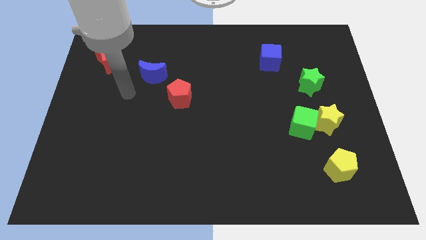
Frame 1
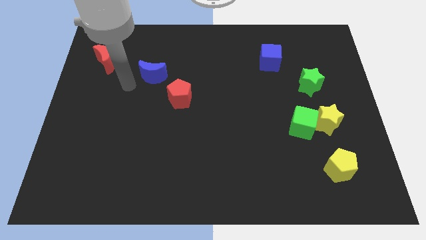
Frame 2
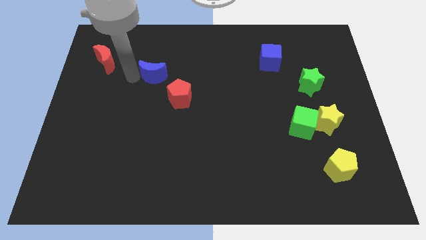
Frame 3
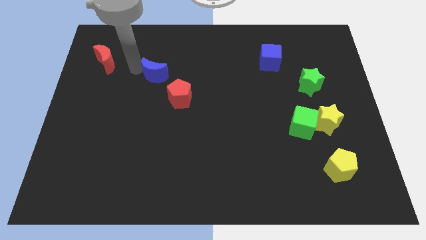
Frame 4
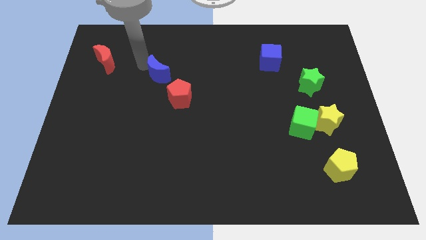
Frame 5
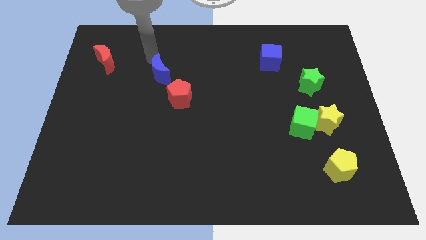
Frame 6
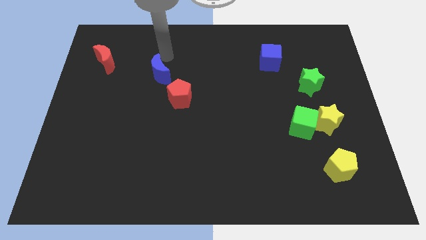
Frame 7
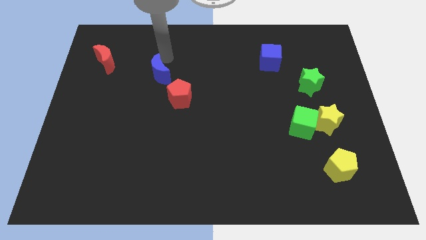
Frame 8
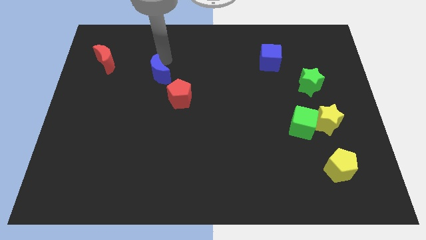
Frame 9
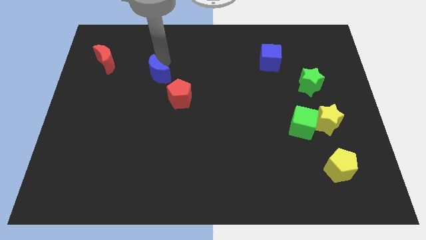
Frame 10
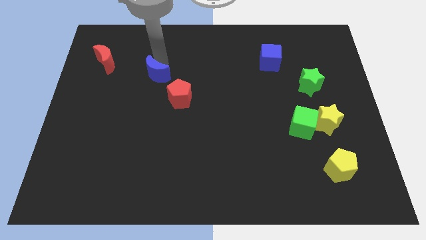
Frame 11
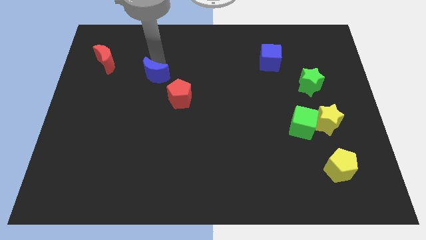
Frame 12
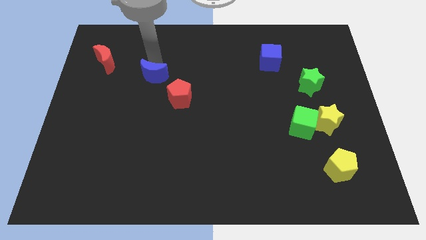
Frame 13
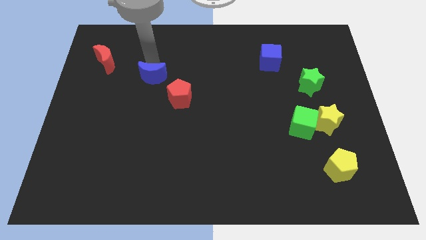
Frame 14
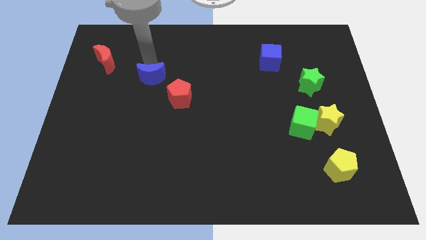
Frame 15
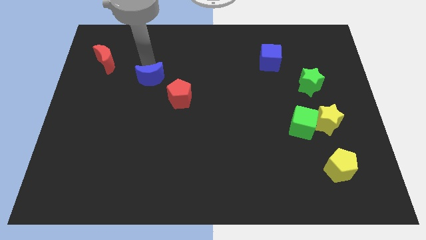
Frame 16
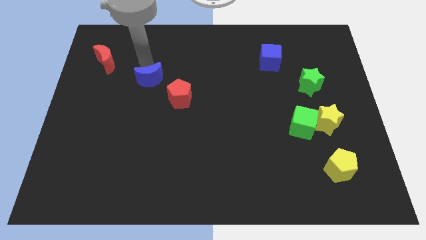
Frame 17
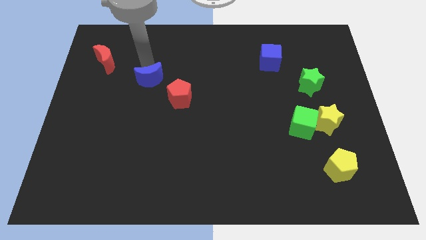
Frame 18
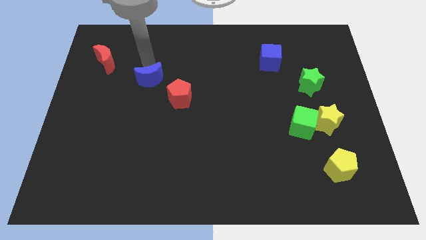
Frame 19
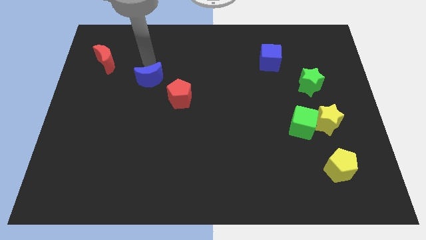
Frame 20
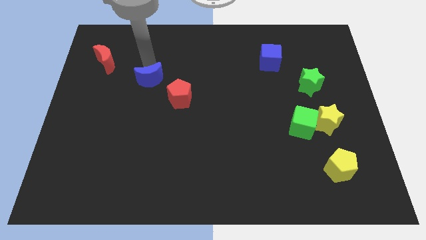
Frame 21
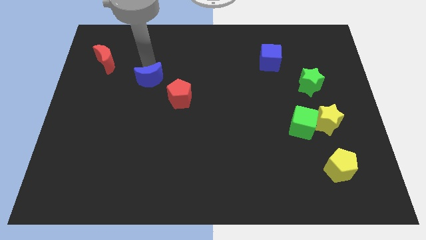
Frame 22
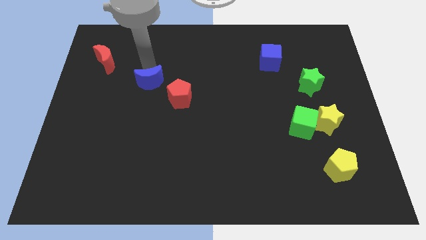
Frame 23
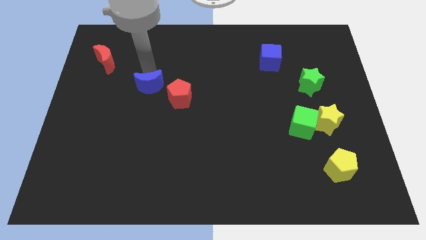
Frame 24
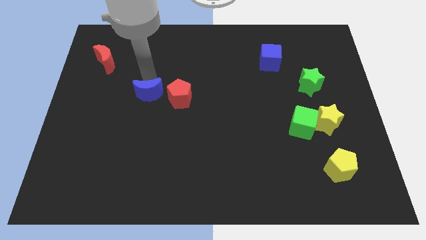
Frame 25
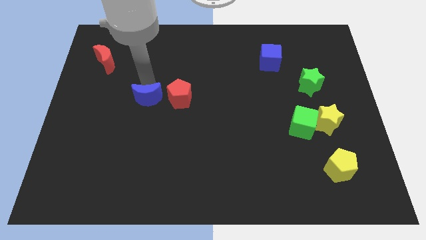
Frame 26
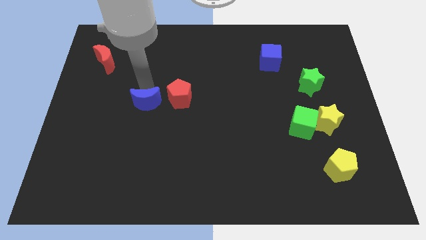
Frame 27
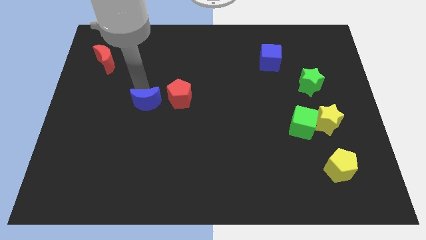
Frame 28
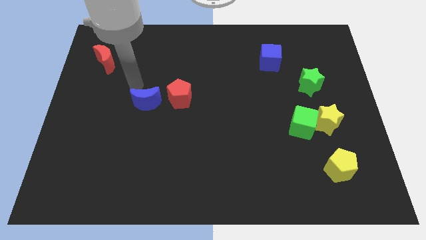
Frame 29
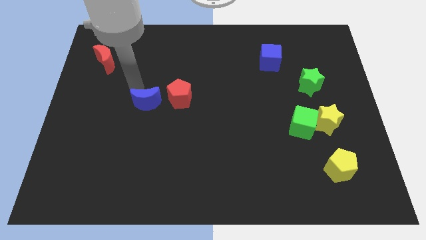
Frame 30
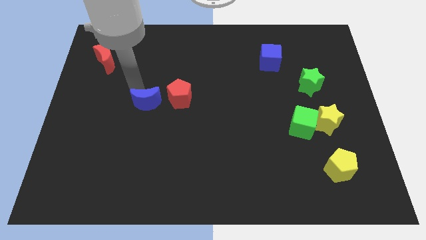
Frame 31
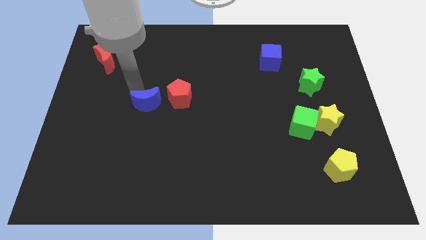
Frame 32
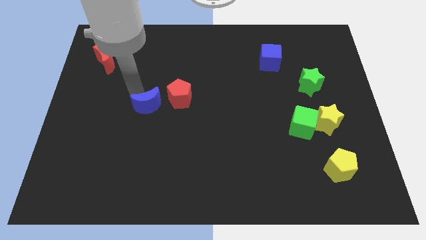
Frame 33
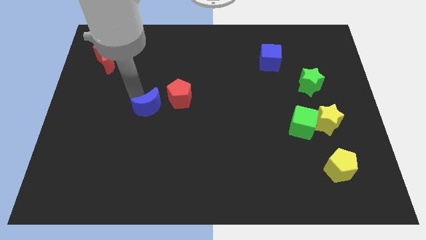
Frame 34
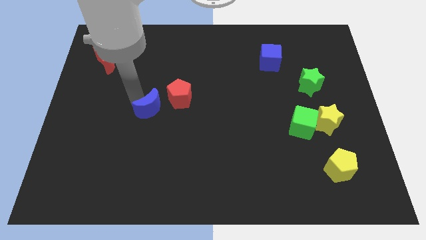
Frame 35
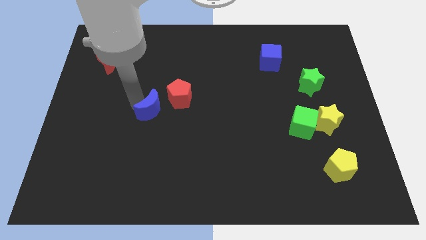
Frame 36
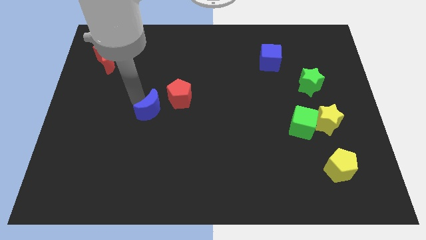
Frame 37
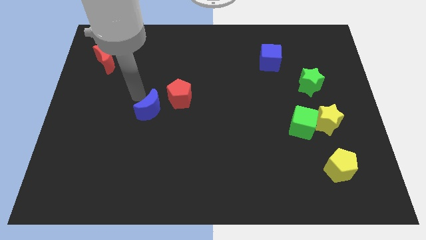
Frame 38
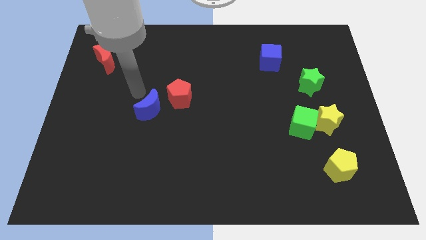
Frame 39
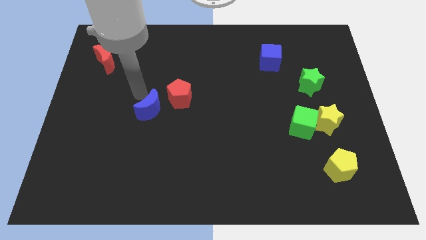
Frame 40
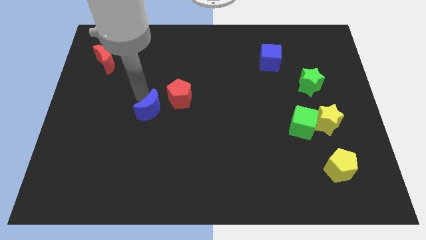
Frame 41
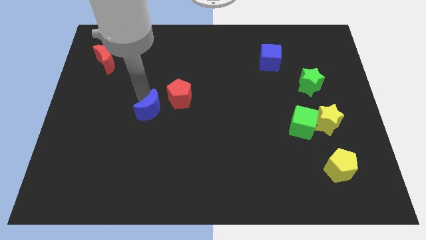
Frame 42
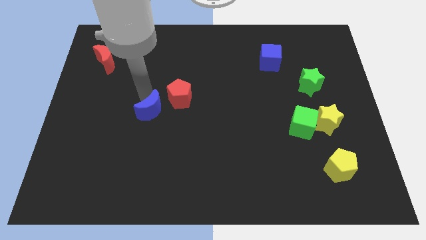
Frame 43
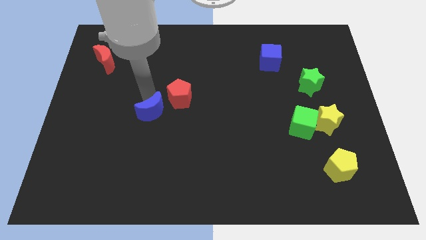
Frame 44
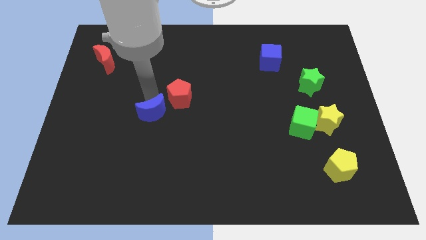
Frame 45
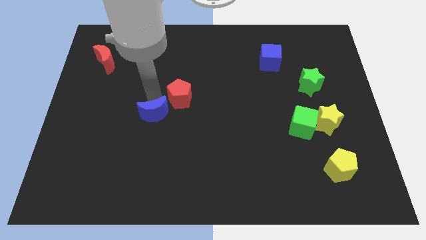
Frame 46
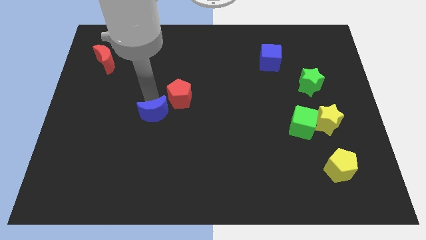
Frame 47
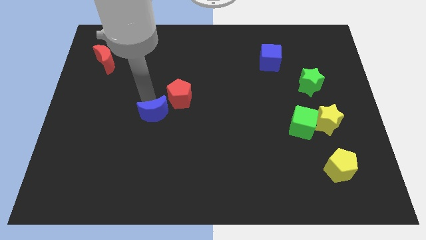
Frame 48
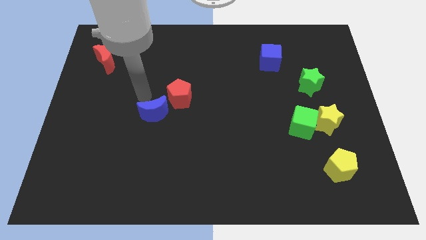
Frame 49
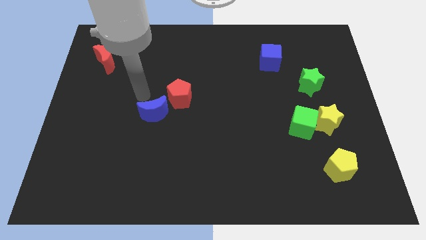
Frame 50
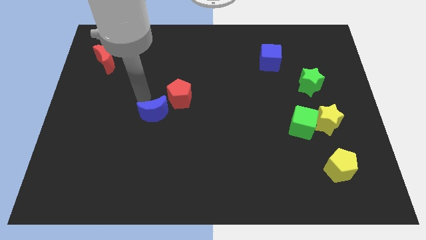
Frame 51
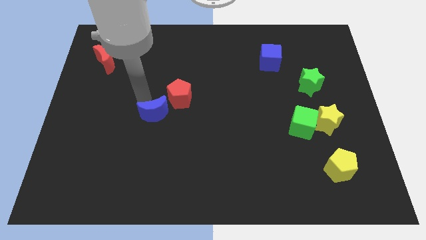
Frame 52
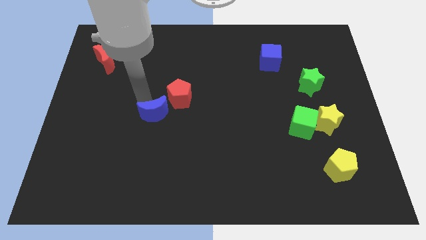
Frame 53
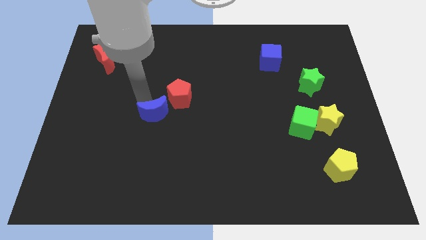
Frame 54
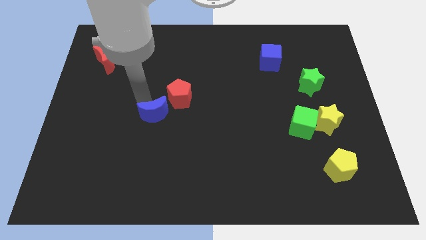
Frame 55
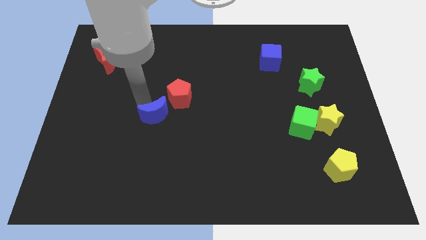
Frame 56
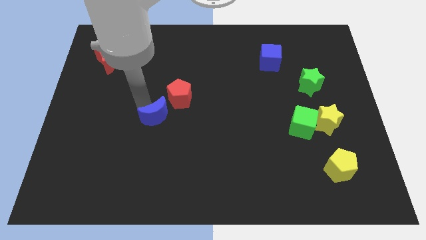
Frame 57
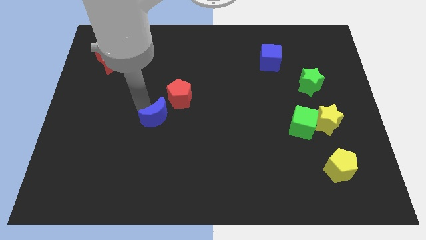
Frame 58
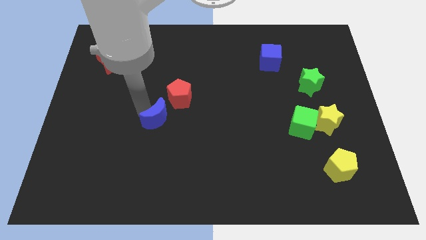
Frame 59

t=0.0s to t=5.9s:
push the blue moon to the bottom of the red pentagon

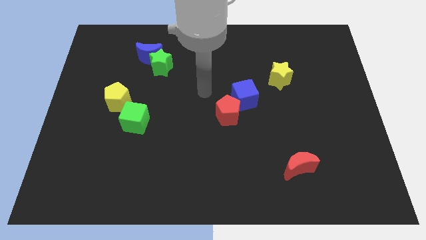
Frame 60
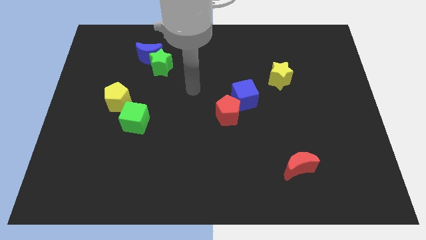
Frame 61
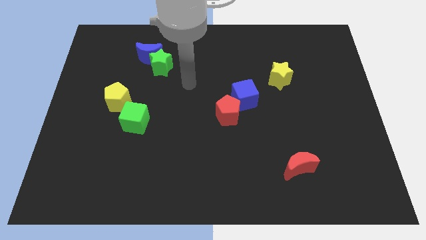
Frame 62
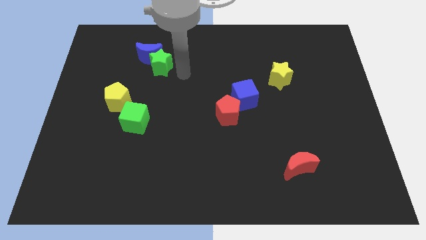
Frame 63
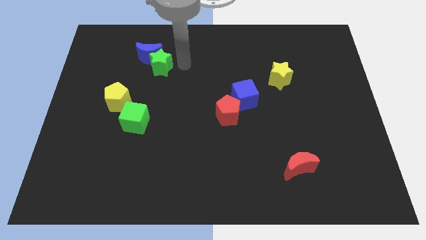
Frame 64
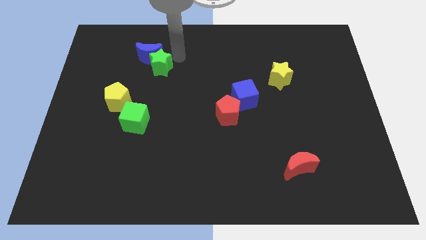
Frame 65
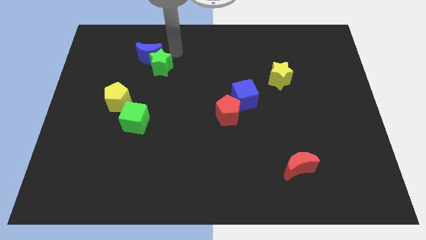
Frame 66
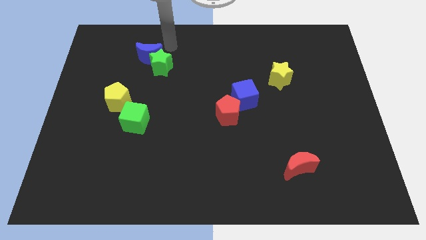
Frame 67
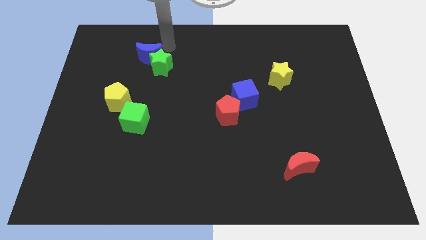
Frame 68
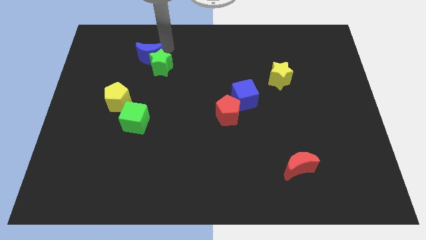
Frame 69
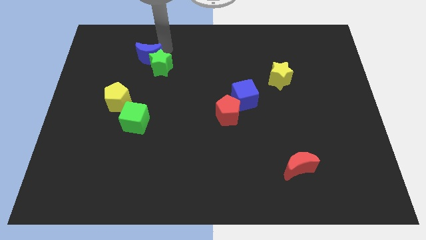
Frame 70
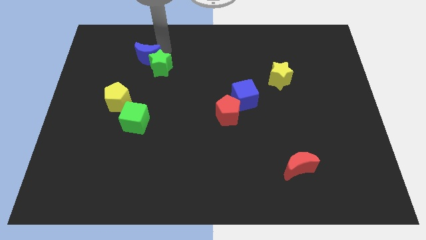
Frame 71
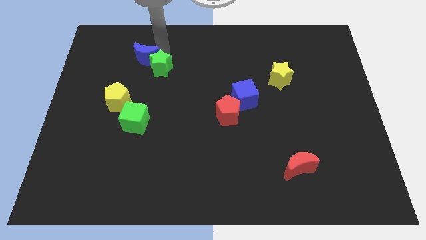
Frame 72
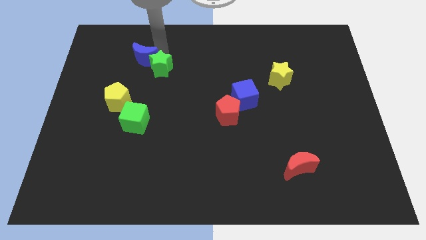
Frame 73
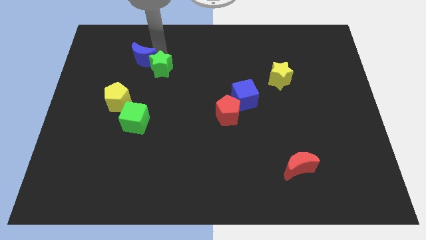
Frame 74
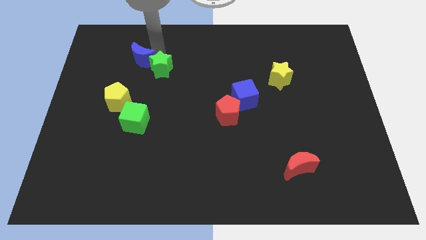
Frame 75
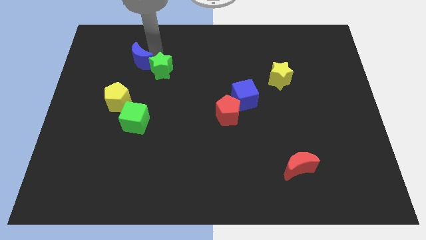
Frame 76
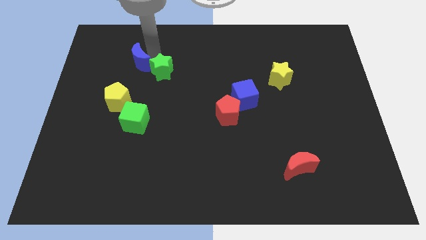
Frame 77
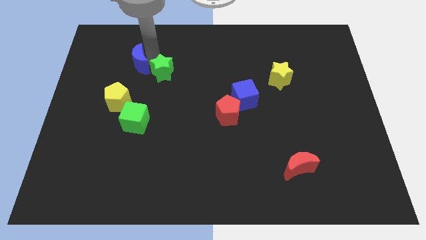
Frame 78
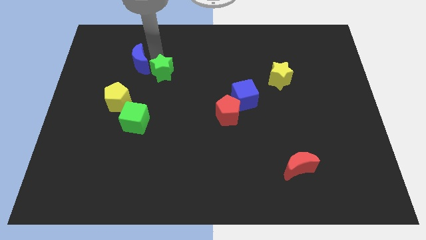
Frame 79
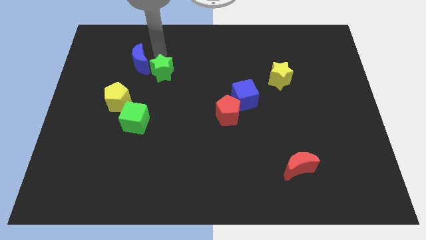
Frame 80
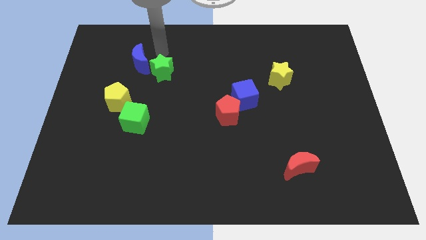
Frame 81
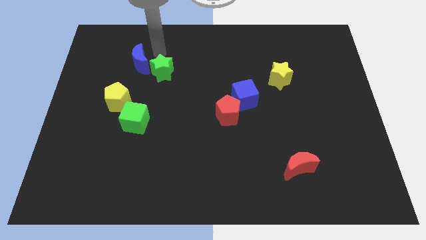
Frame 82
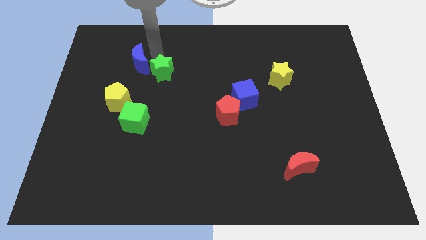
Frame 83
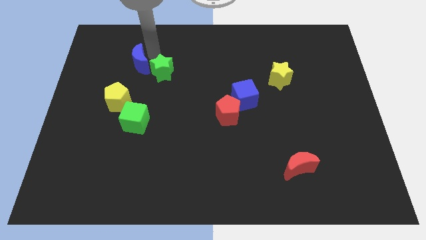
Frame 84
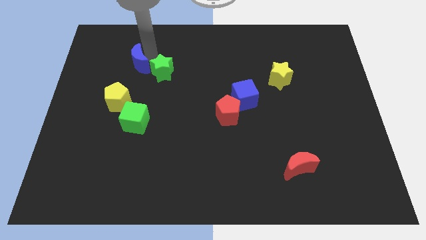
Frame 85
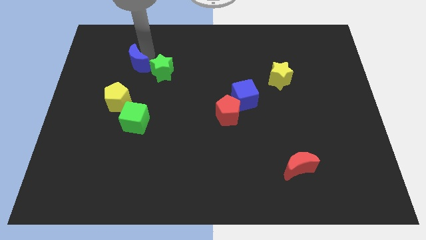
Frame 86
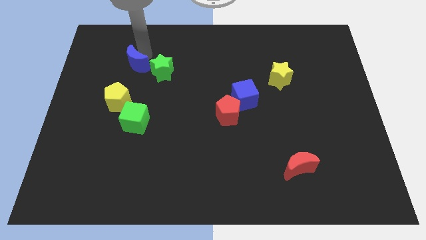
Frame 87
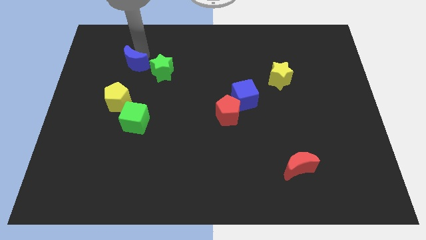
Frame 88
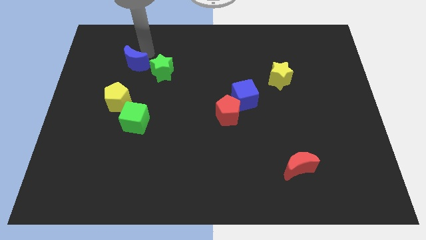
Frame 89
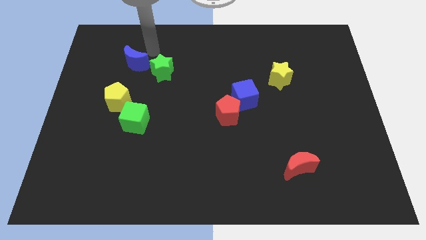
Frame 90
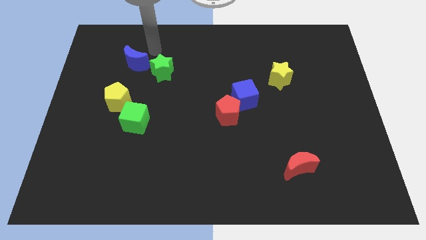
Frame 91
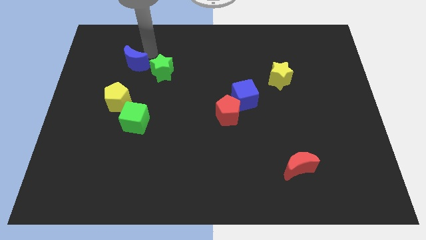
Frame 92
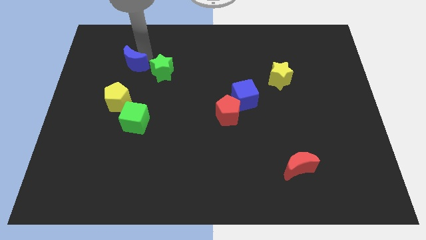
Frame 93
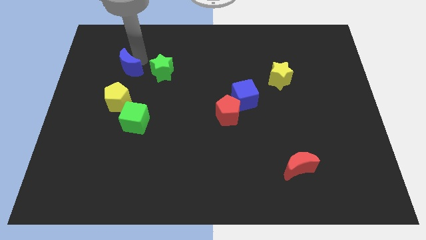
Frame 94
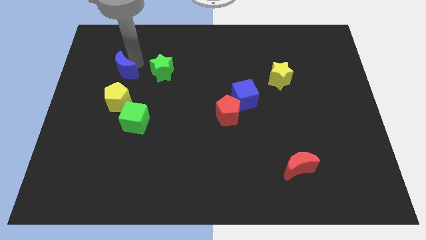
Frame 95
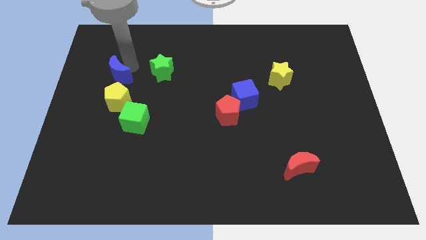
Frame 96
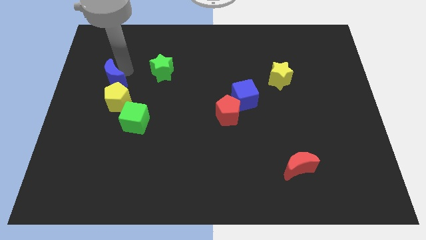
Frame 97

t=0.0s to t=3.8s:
move the blue moon diagonally up and to the left of the yellow pentagon
